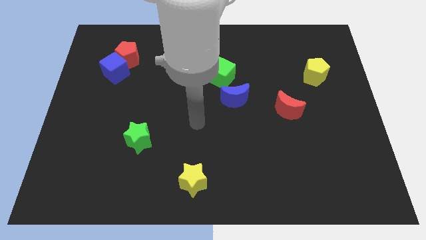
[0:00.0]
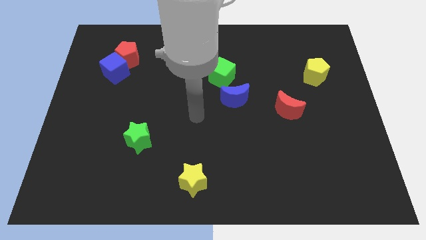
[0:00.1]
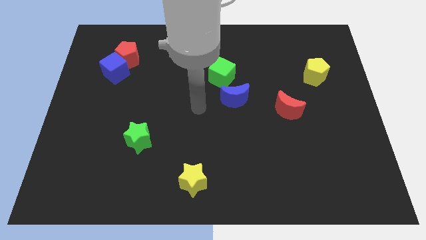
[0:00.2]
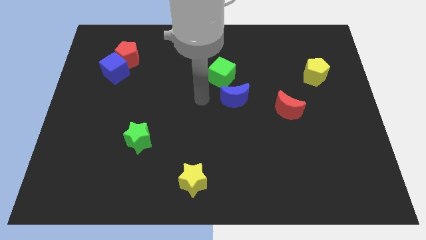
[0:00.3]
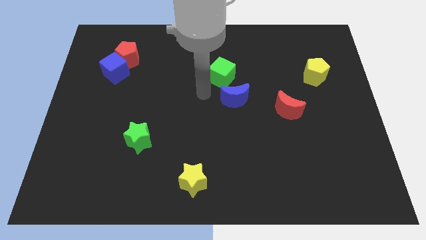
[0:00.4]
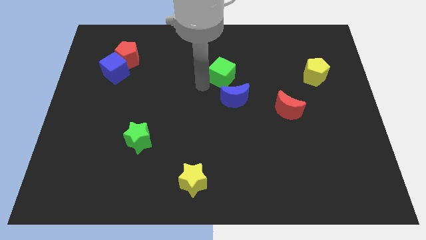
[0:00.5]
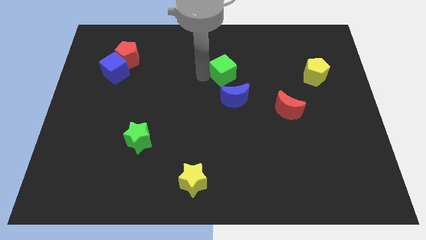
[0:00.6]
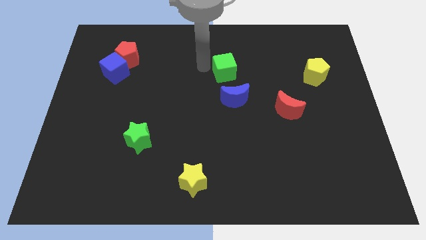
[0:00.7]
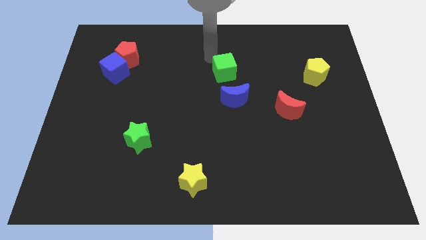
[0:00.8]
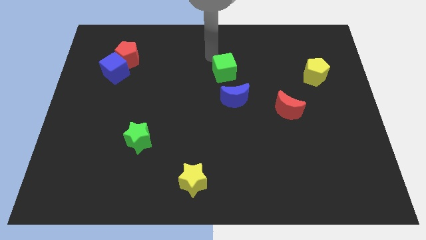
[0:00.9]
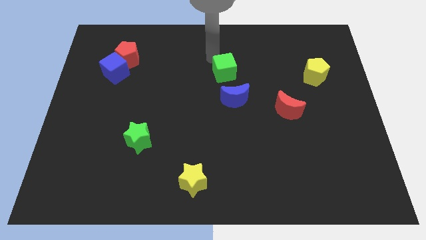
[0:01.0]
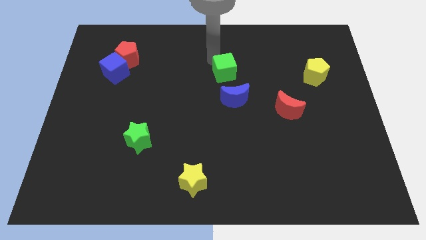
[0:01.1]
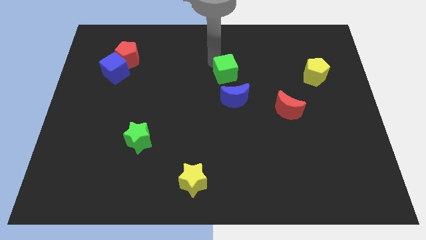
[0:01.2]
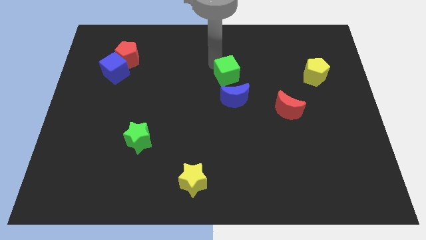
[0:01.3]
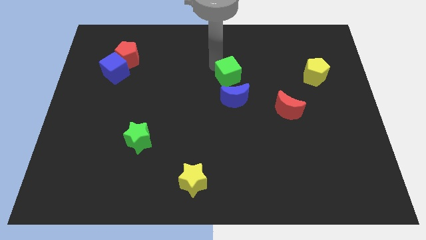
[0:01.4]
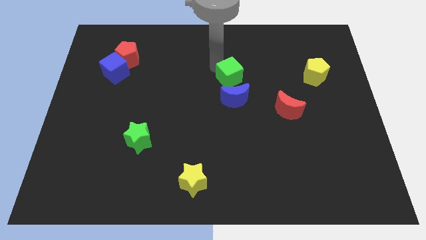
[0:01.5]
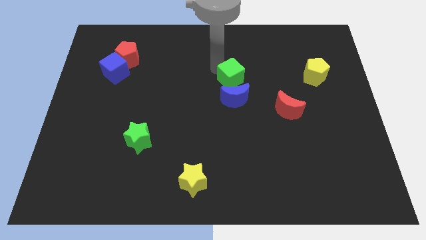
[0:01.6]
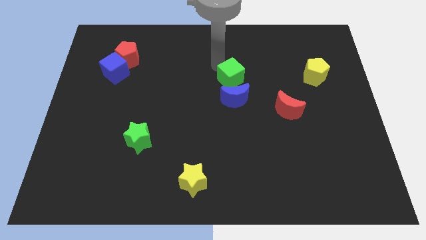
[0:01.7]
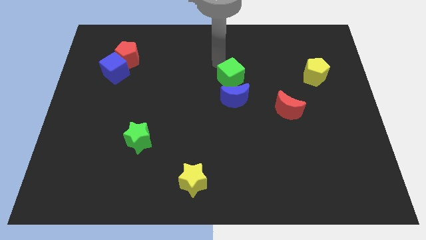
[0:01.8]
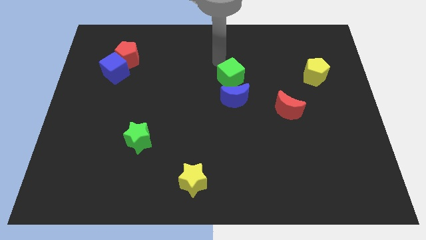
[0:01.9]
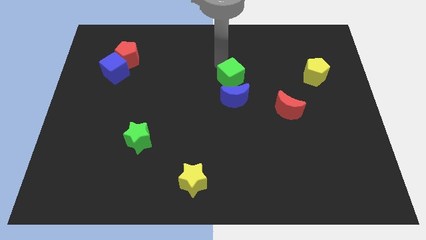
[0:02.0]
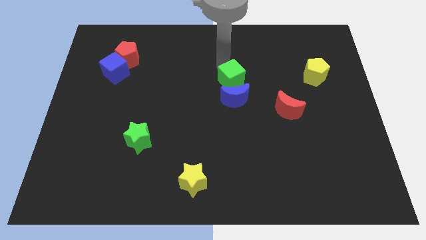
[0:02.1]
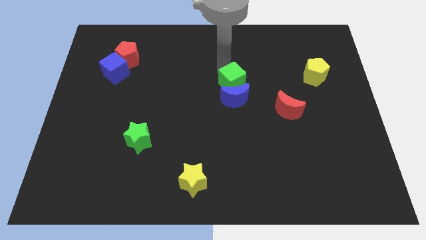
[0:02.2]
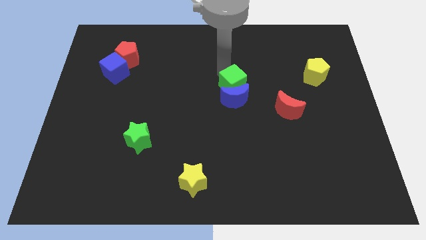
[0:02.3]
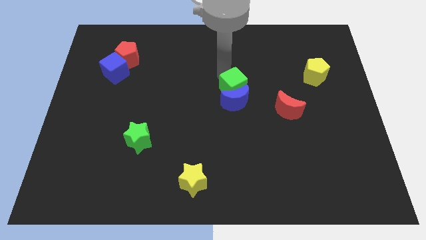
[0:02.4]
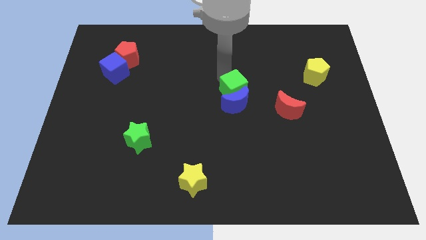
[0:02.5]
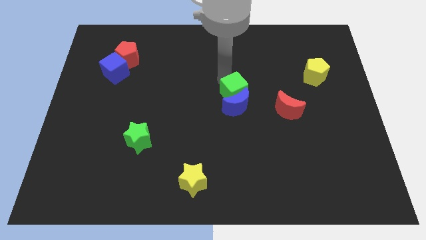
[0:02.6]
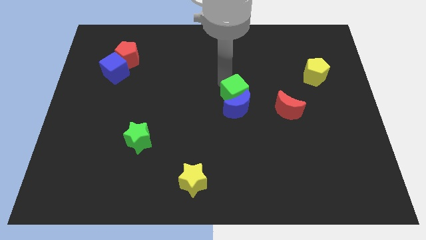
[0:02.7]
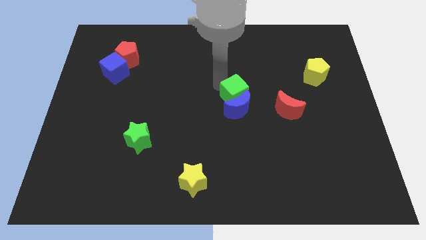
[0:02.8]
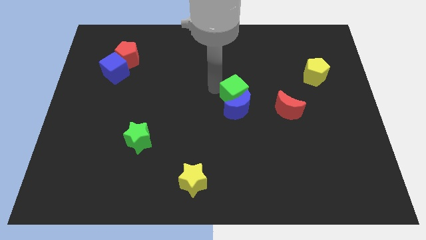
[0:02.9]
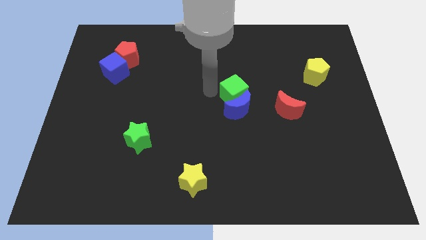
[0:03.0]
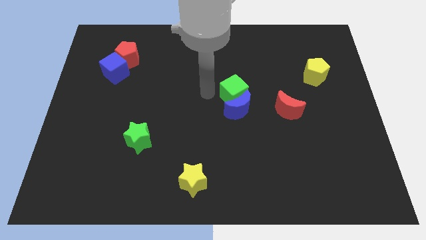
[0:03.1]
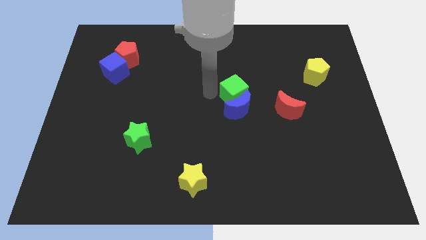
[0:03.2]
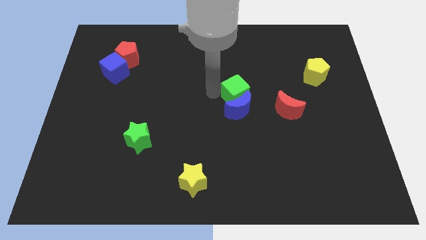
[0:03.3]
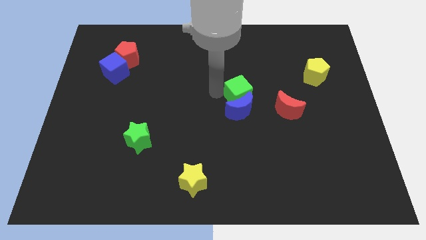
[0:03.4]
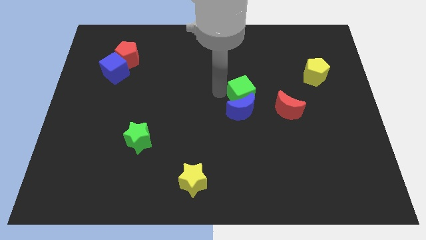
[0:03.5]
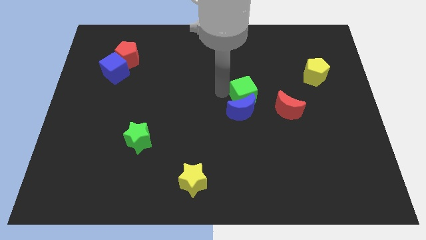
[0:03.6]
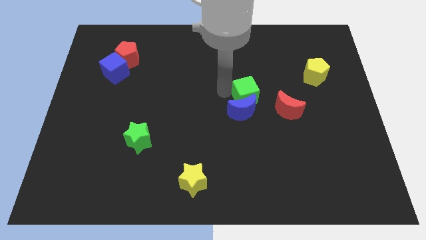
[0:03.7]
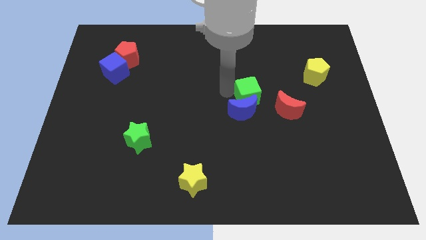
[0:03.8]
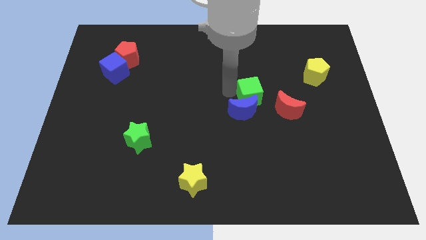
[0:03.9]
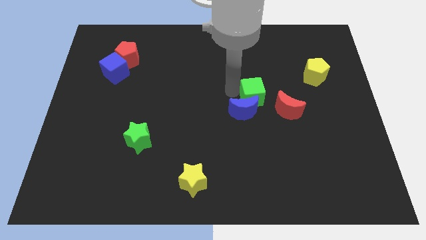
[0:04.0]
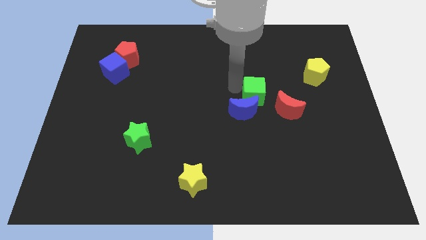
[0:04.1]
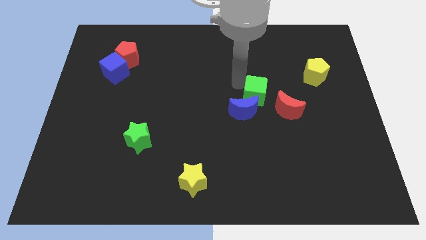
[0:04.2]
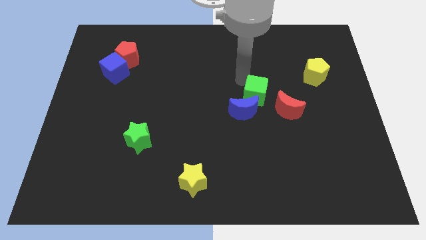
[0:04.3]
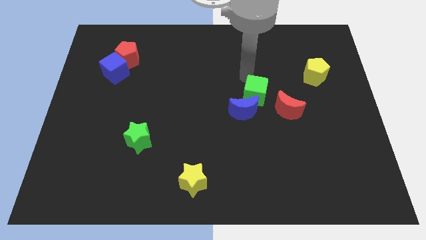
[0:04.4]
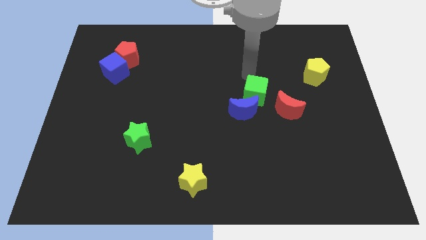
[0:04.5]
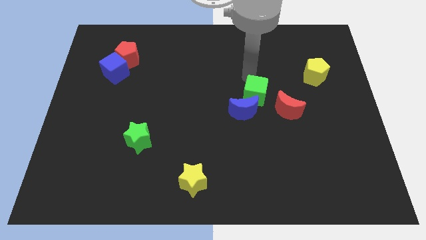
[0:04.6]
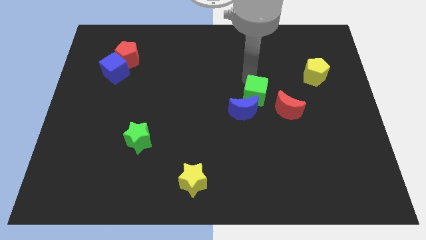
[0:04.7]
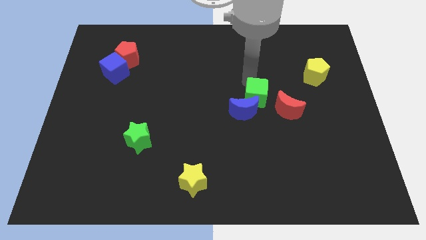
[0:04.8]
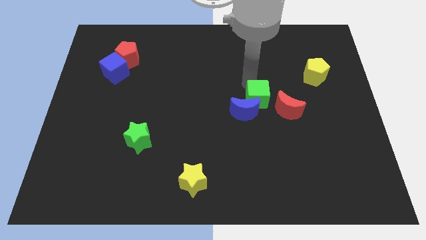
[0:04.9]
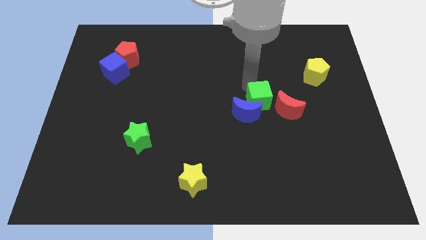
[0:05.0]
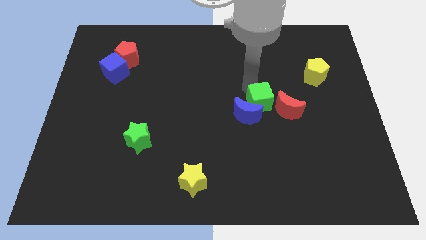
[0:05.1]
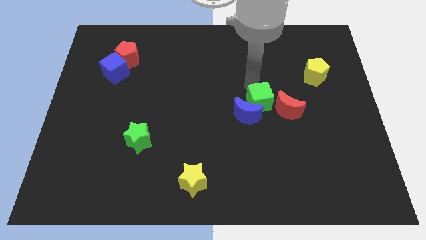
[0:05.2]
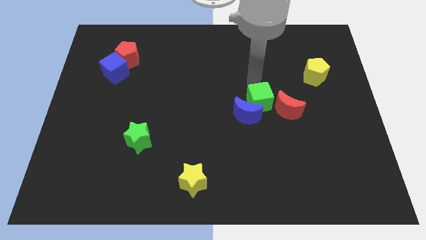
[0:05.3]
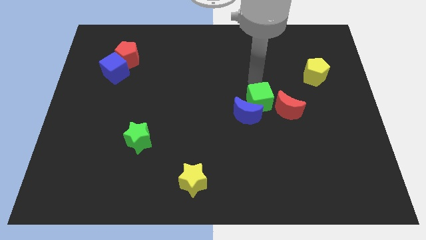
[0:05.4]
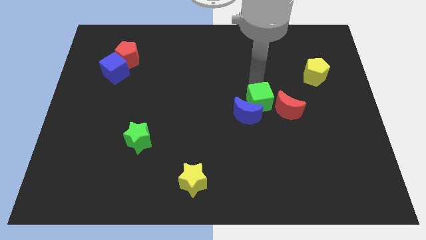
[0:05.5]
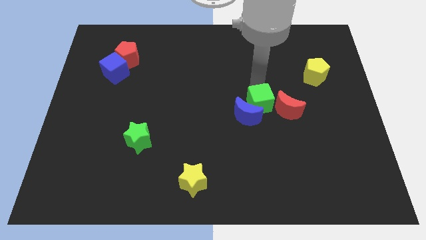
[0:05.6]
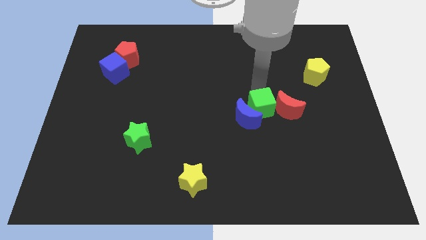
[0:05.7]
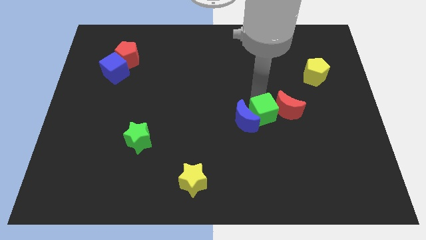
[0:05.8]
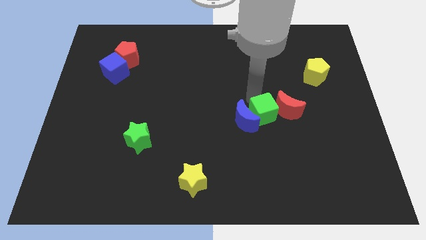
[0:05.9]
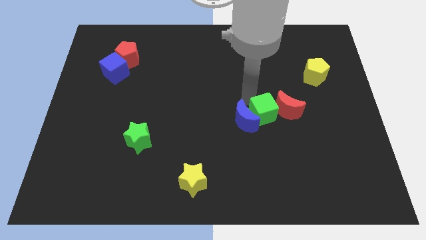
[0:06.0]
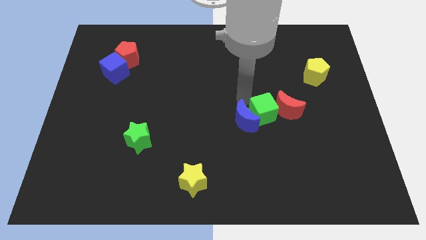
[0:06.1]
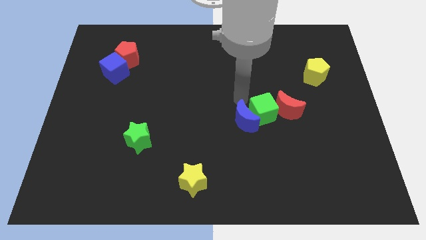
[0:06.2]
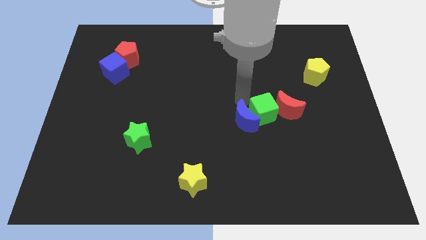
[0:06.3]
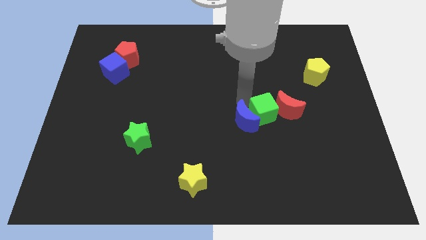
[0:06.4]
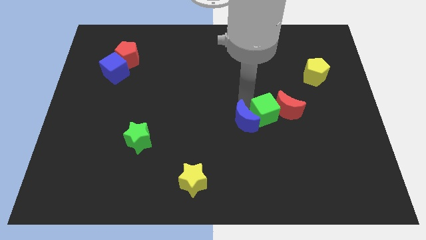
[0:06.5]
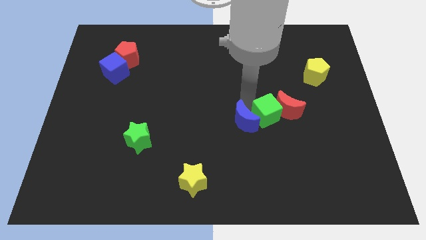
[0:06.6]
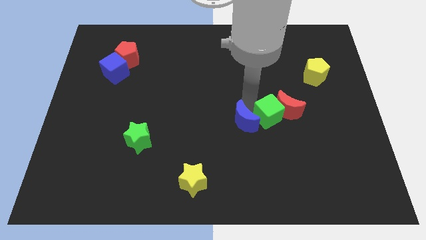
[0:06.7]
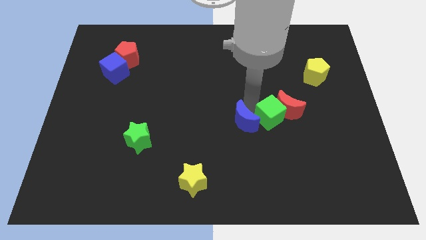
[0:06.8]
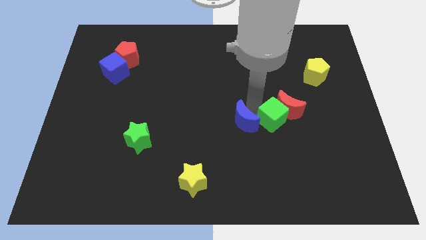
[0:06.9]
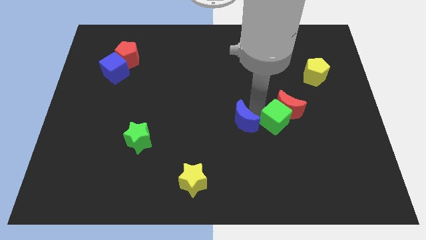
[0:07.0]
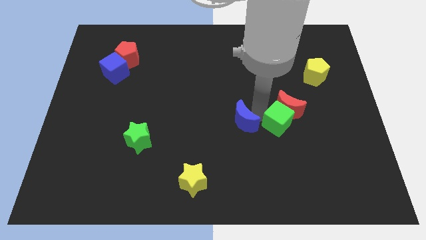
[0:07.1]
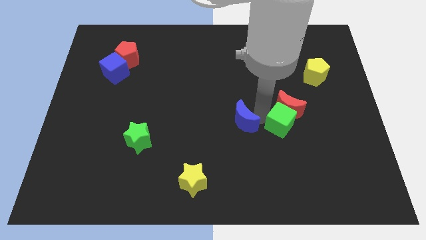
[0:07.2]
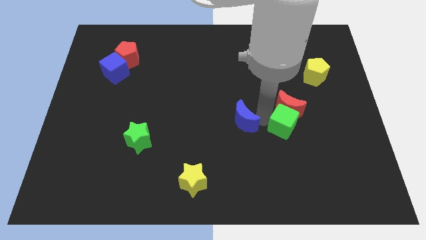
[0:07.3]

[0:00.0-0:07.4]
move the green cube downwards and right

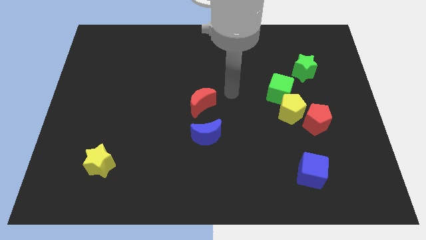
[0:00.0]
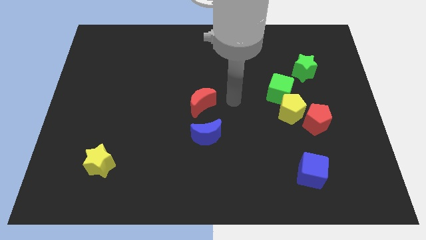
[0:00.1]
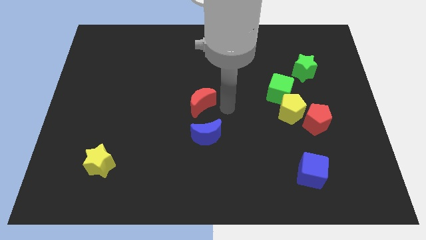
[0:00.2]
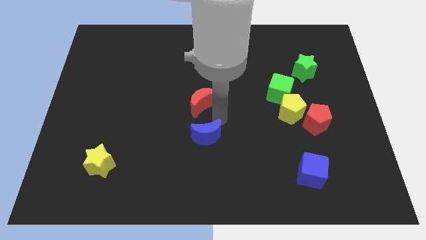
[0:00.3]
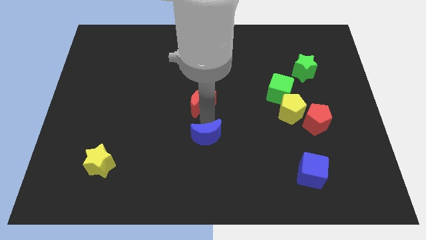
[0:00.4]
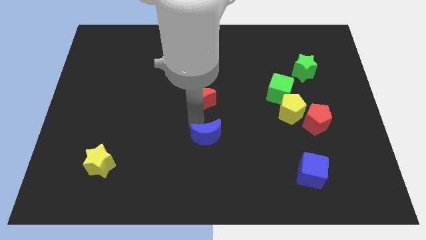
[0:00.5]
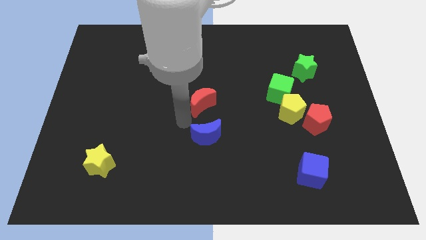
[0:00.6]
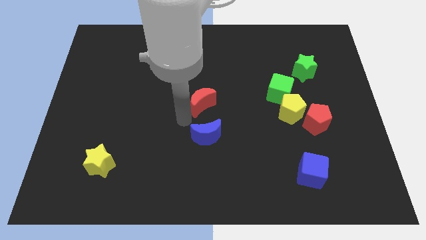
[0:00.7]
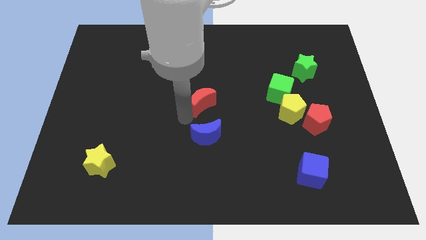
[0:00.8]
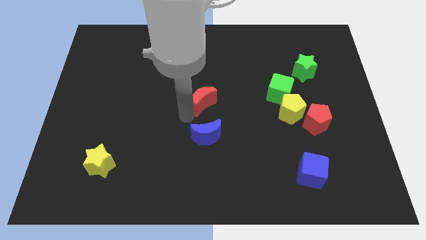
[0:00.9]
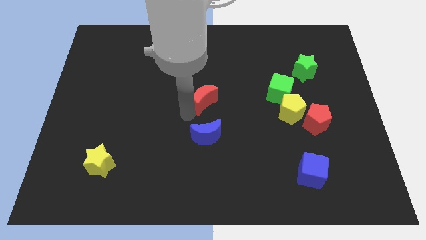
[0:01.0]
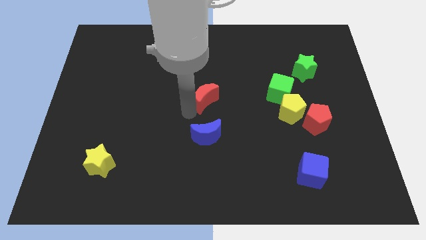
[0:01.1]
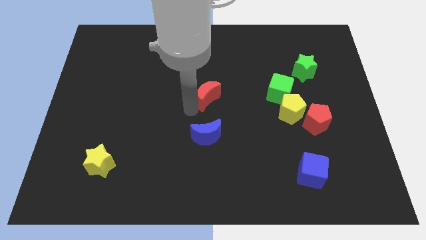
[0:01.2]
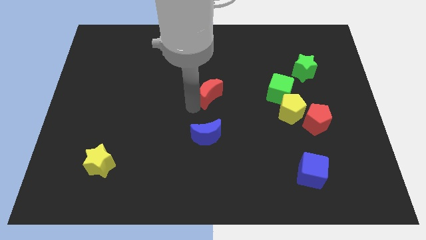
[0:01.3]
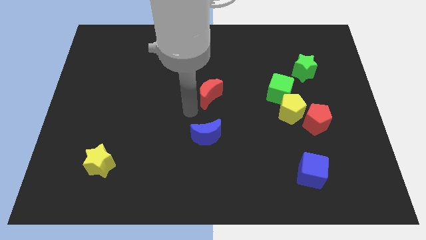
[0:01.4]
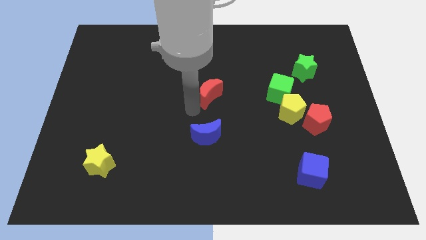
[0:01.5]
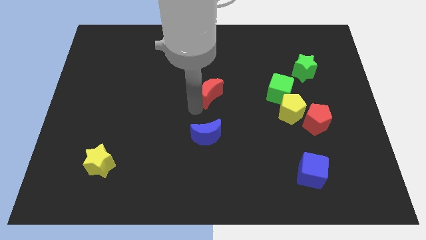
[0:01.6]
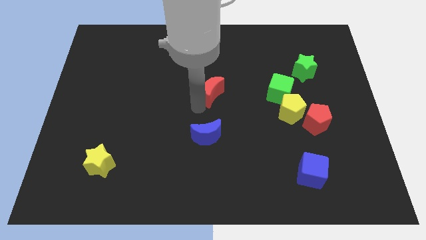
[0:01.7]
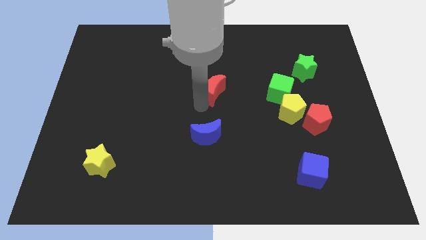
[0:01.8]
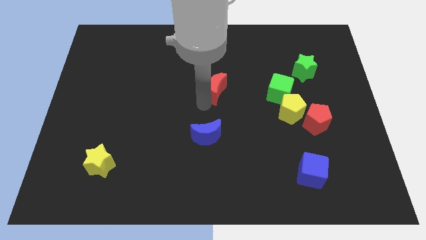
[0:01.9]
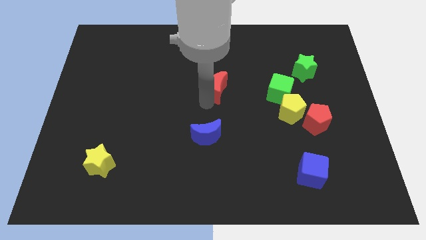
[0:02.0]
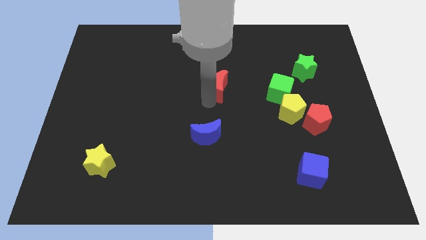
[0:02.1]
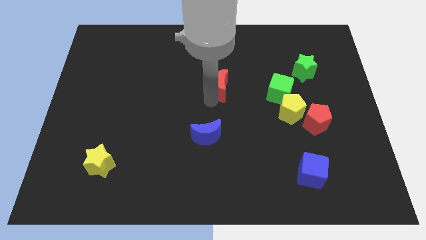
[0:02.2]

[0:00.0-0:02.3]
push the red moon somewhat upwards and right
